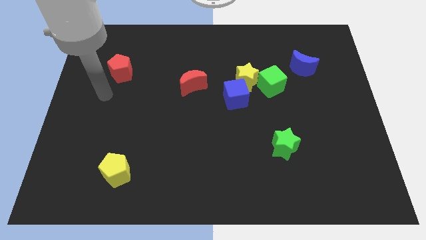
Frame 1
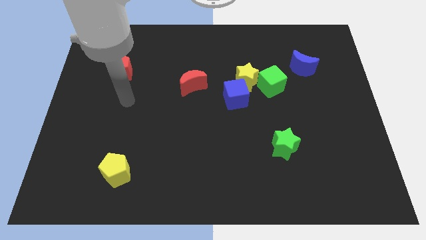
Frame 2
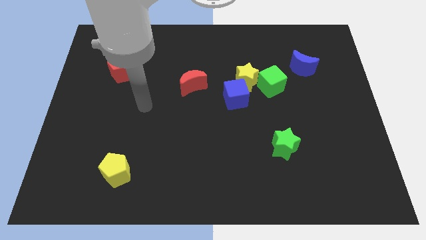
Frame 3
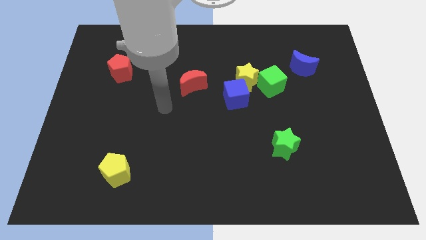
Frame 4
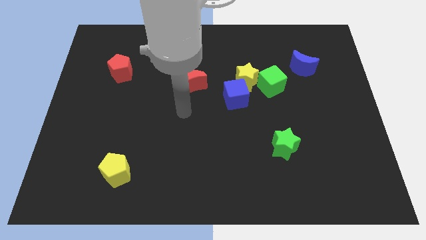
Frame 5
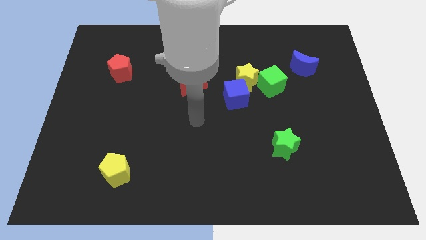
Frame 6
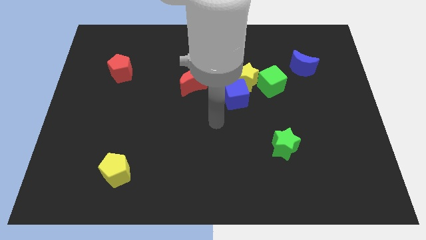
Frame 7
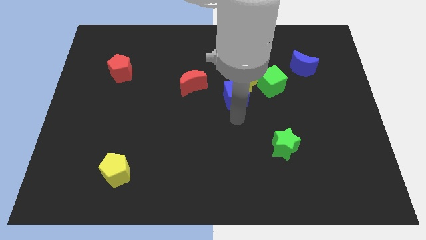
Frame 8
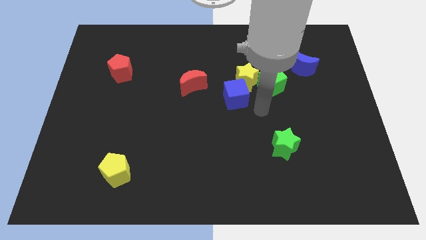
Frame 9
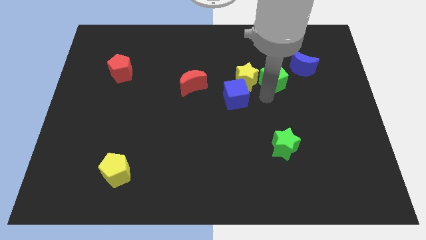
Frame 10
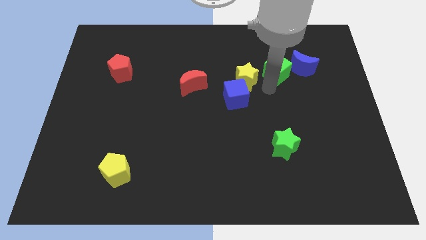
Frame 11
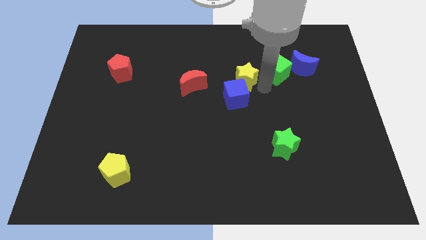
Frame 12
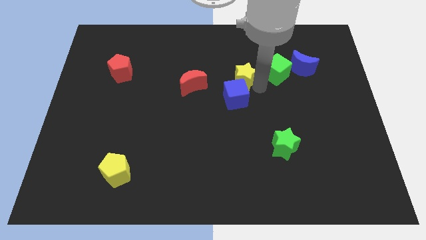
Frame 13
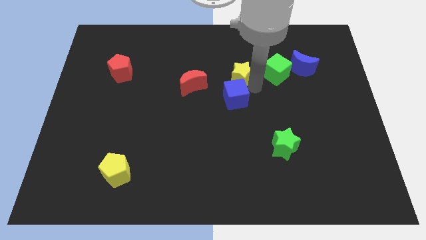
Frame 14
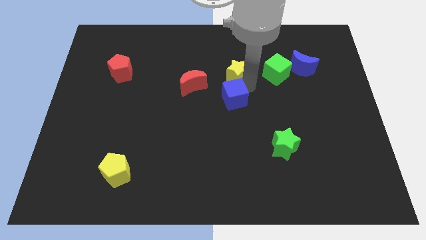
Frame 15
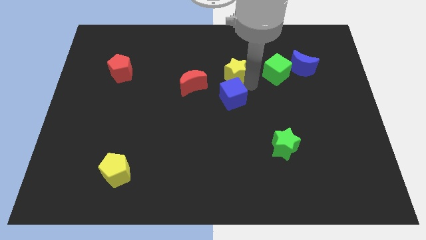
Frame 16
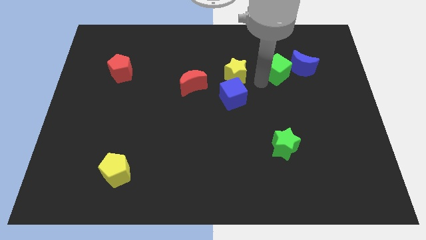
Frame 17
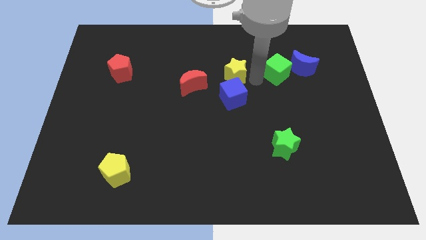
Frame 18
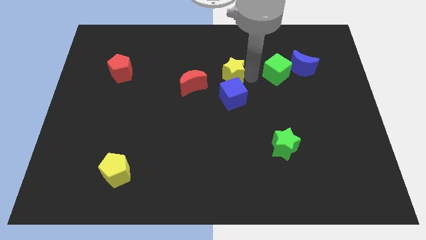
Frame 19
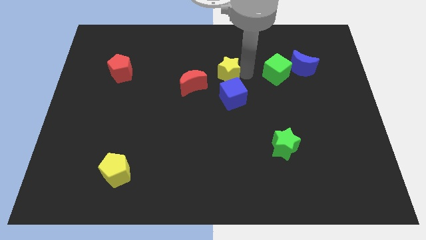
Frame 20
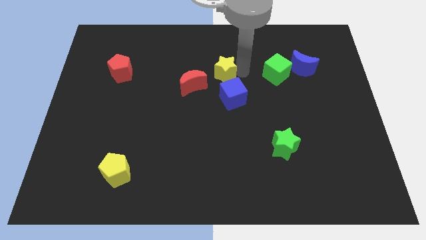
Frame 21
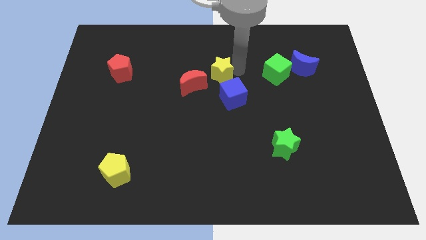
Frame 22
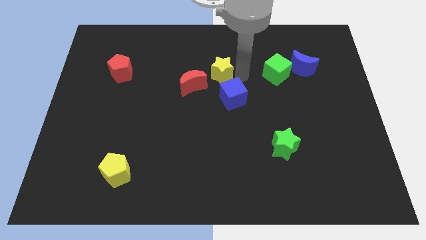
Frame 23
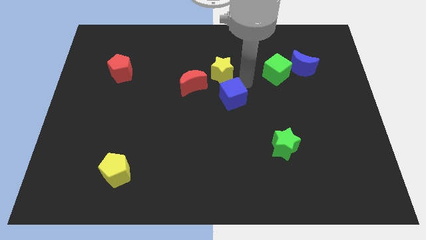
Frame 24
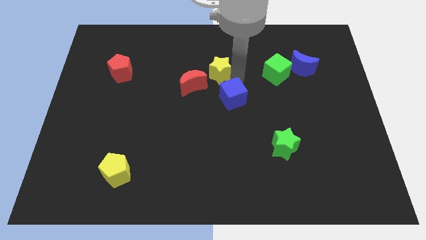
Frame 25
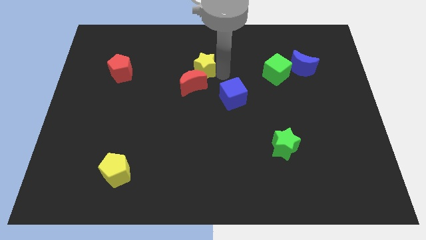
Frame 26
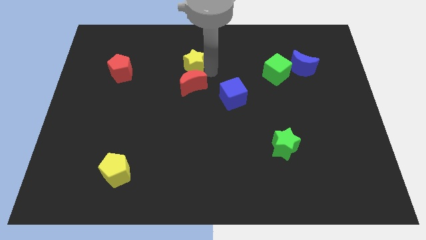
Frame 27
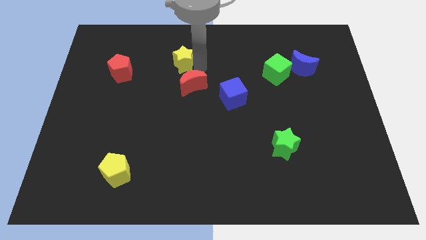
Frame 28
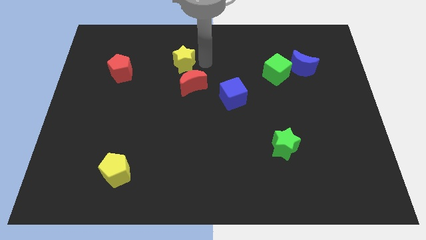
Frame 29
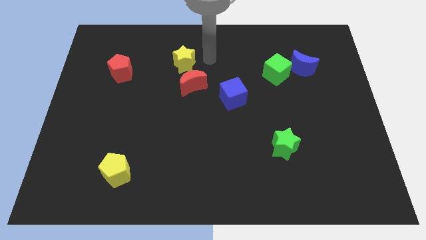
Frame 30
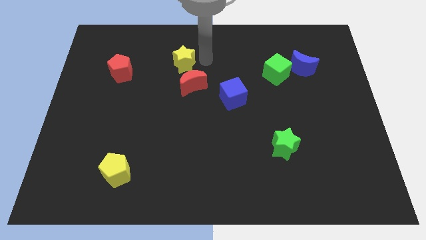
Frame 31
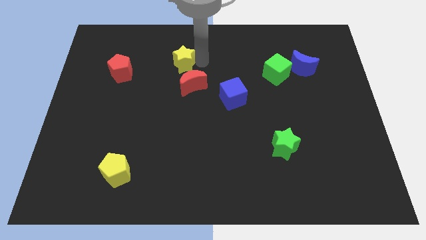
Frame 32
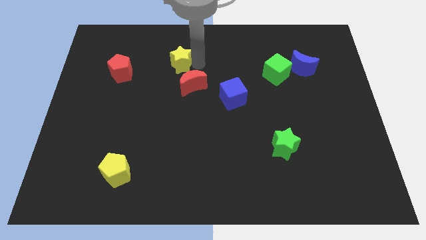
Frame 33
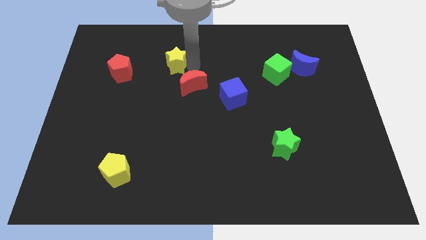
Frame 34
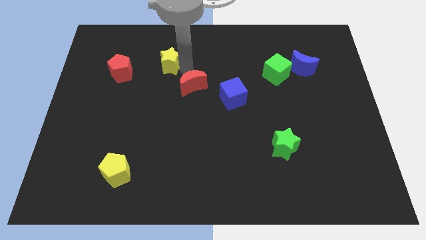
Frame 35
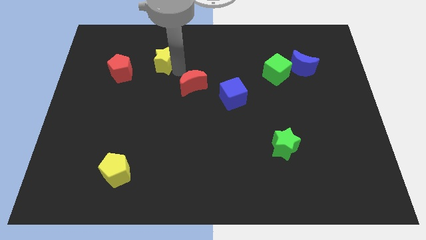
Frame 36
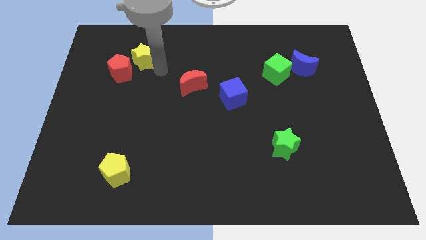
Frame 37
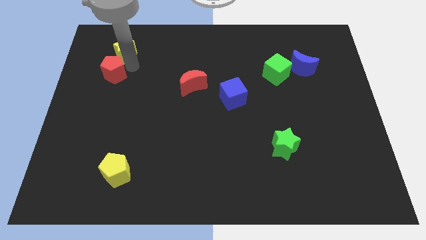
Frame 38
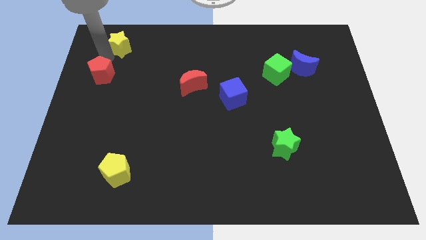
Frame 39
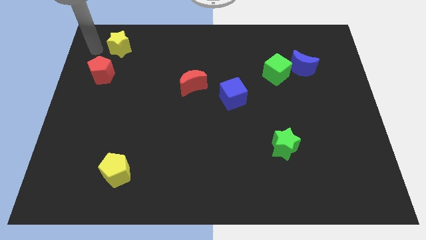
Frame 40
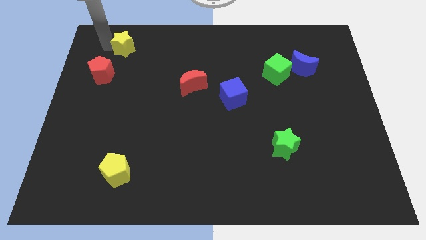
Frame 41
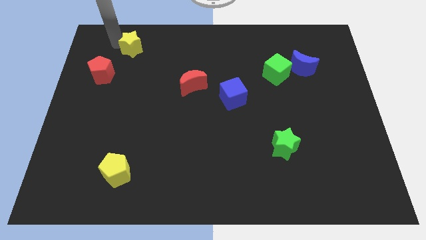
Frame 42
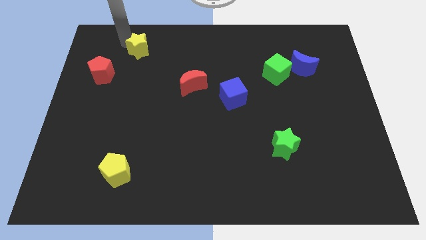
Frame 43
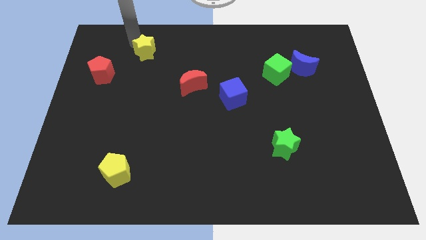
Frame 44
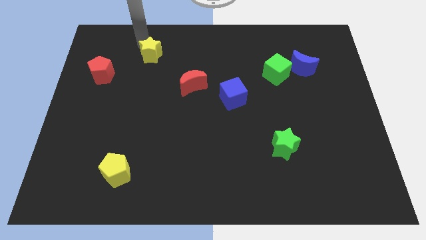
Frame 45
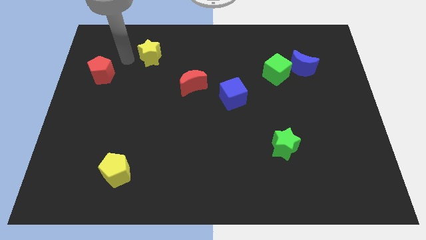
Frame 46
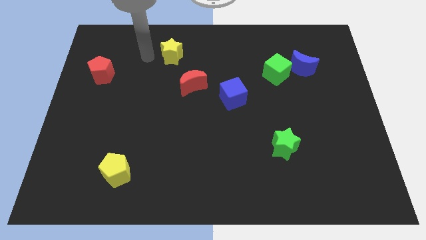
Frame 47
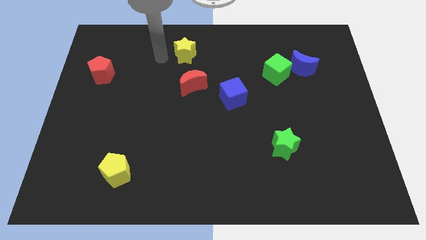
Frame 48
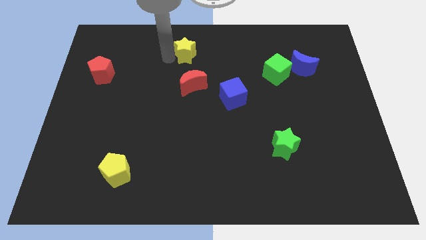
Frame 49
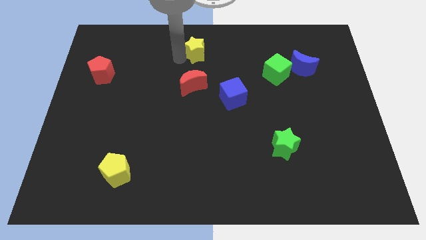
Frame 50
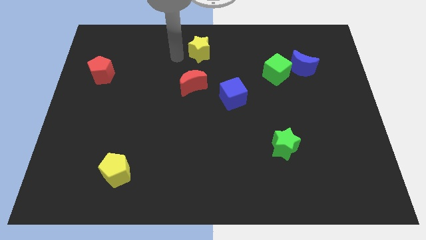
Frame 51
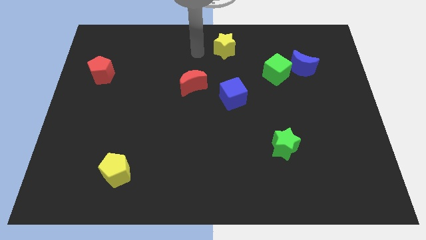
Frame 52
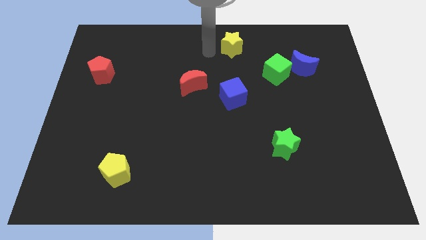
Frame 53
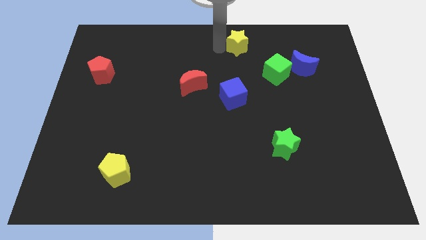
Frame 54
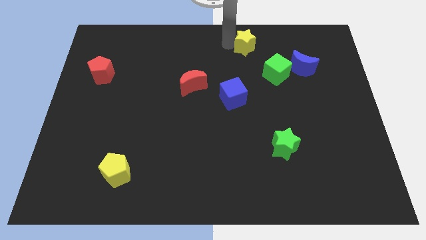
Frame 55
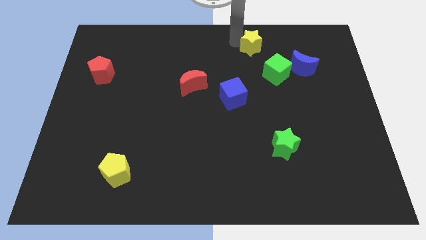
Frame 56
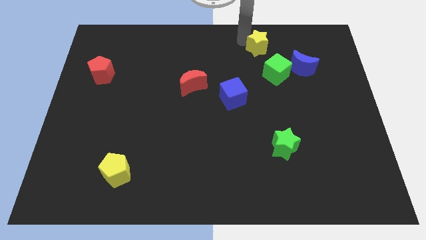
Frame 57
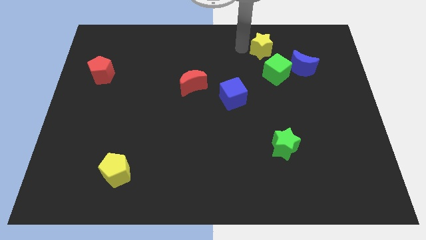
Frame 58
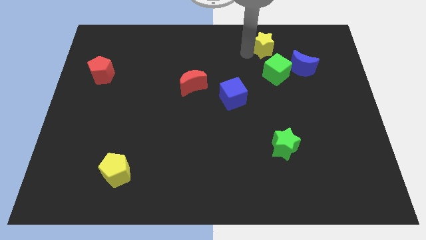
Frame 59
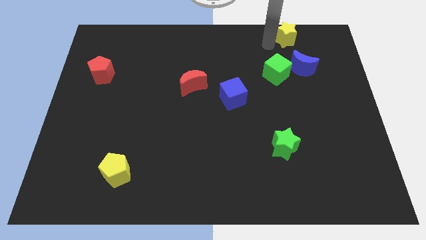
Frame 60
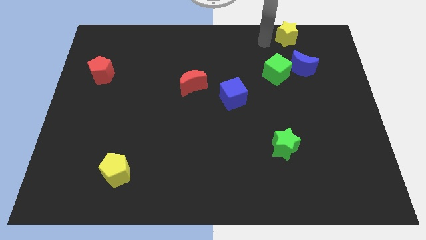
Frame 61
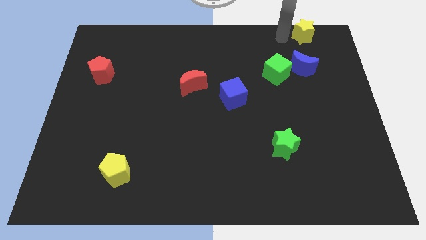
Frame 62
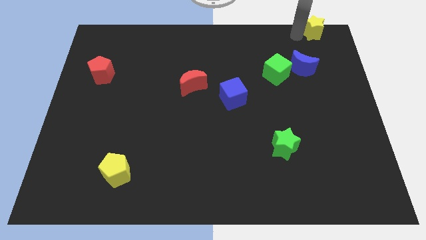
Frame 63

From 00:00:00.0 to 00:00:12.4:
move the yellow star to the top right of the board

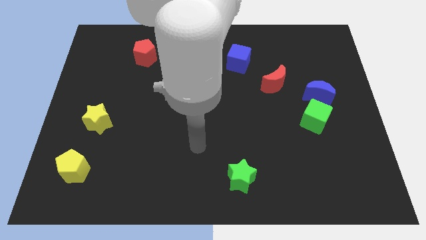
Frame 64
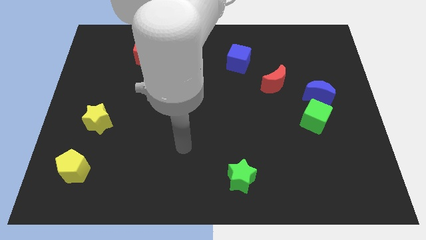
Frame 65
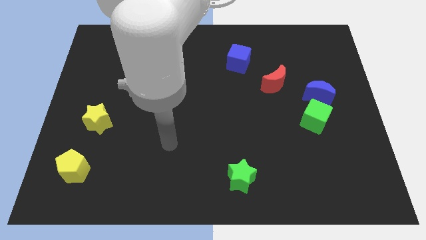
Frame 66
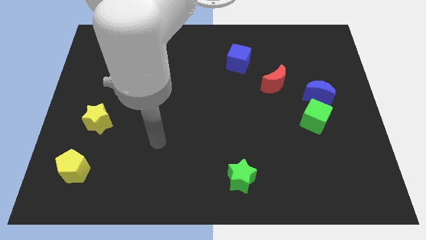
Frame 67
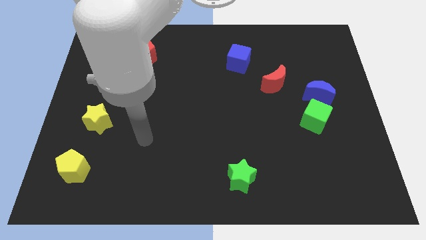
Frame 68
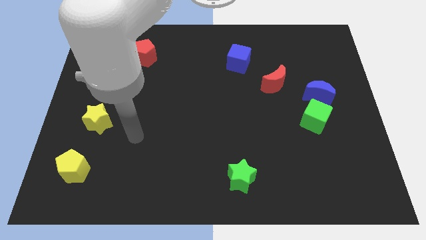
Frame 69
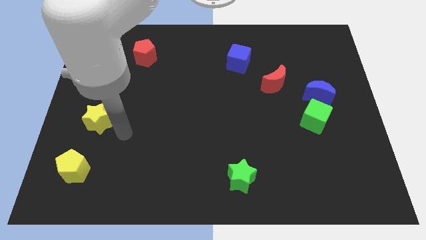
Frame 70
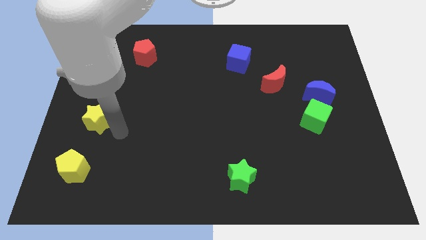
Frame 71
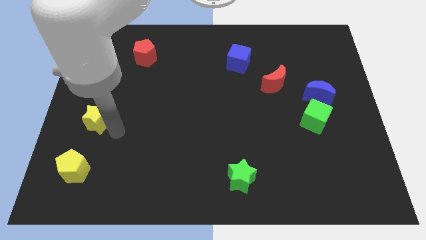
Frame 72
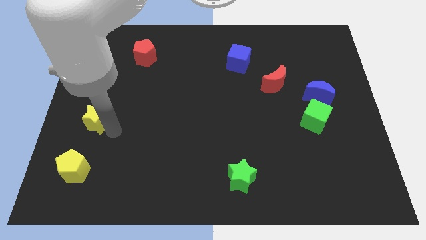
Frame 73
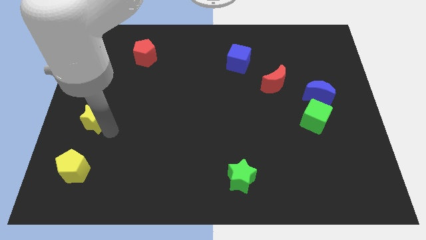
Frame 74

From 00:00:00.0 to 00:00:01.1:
put the yellow star to the center left
